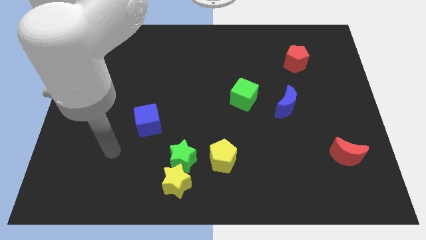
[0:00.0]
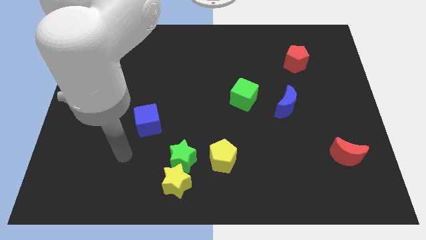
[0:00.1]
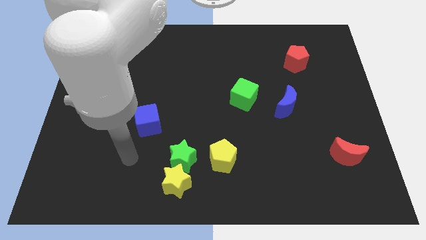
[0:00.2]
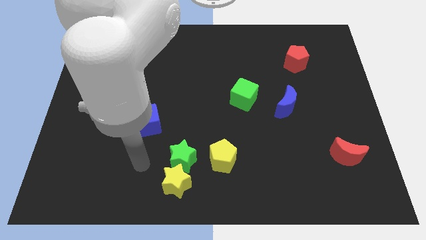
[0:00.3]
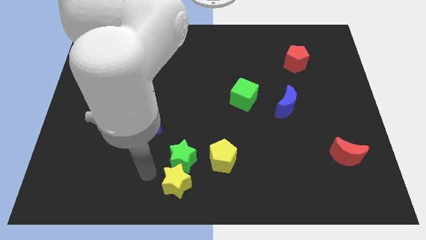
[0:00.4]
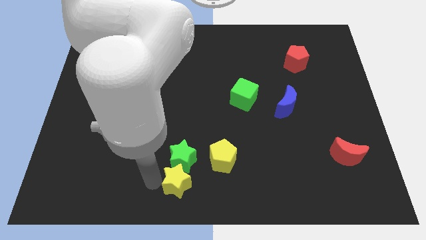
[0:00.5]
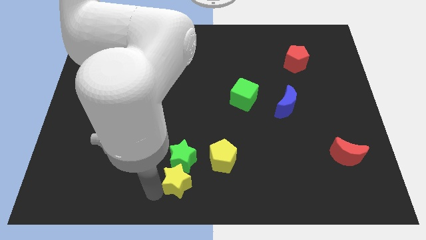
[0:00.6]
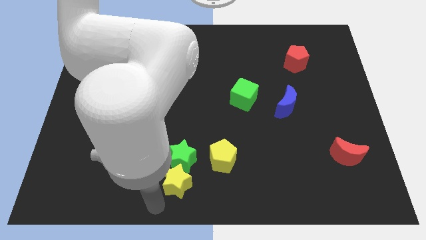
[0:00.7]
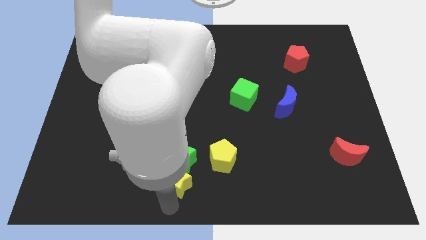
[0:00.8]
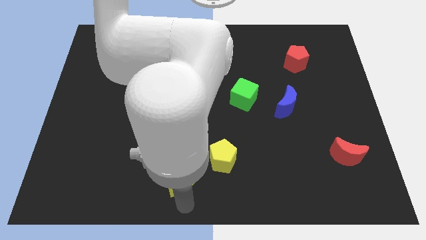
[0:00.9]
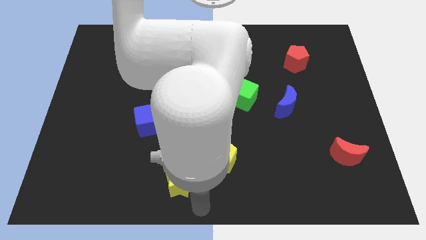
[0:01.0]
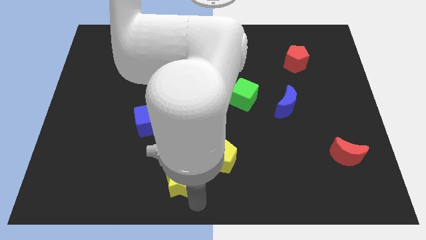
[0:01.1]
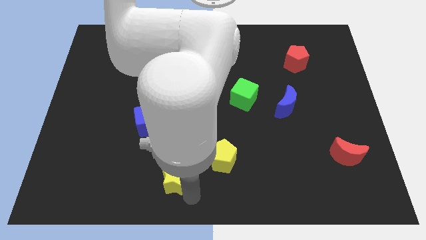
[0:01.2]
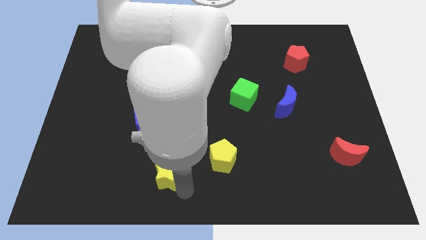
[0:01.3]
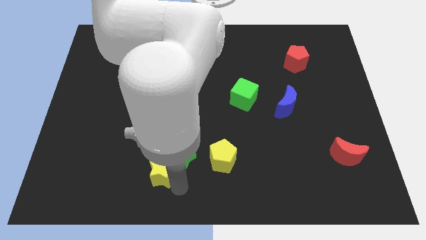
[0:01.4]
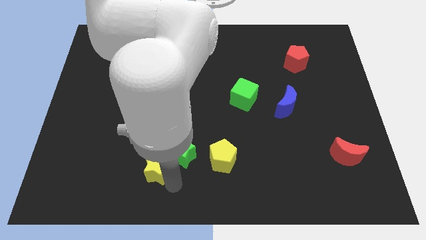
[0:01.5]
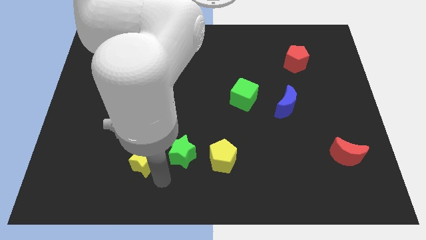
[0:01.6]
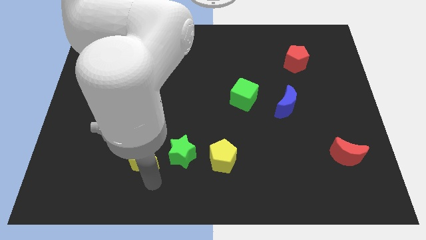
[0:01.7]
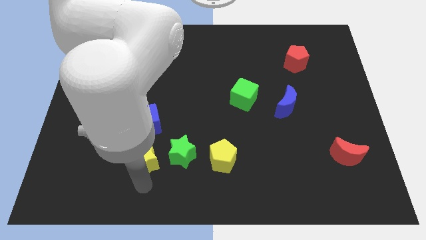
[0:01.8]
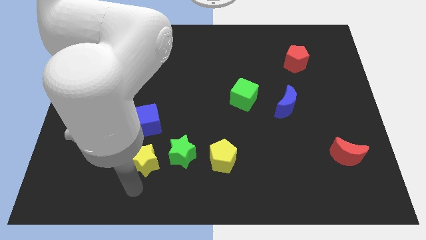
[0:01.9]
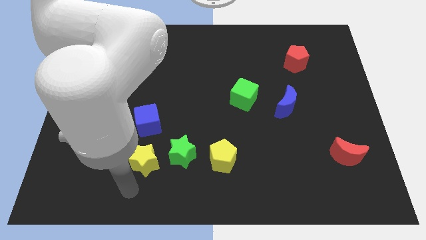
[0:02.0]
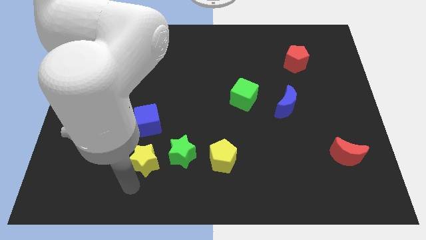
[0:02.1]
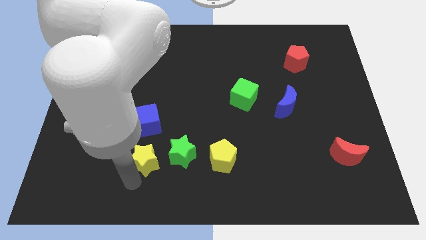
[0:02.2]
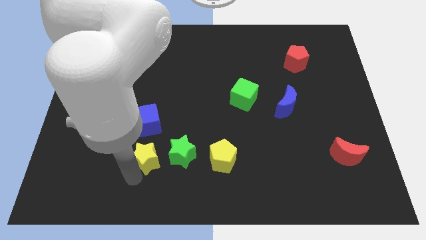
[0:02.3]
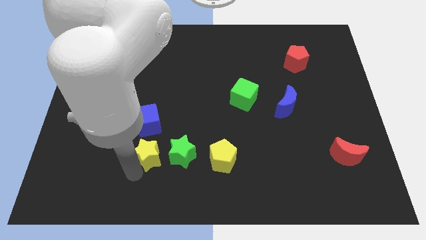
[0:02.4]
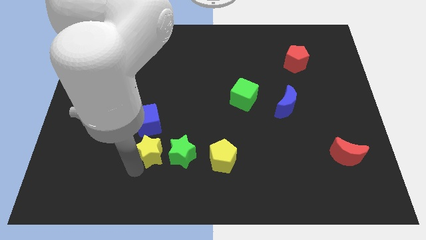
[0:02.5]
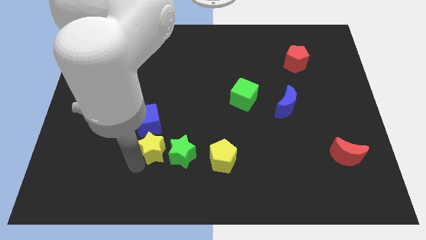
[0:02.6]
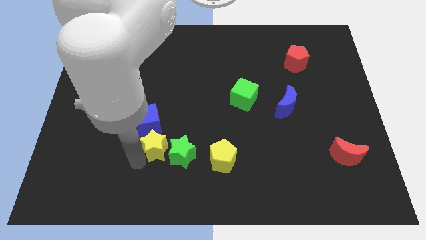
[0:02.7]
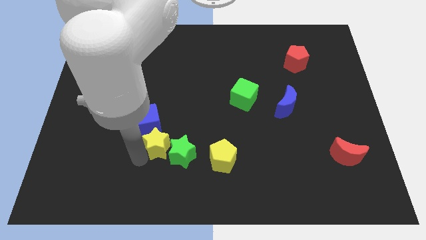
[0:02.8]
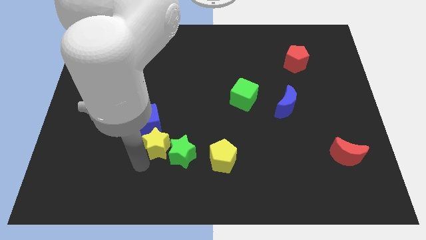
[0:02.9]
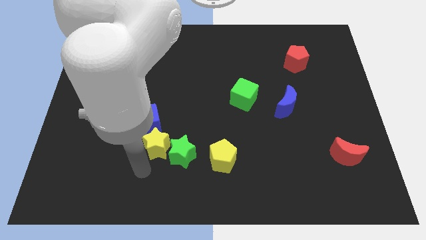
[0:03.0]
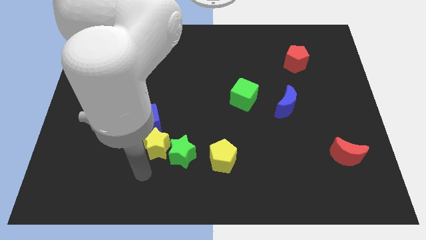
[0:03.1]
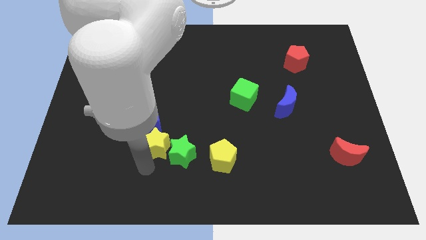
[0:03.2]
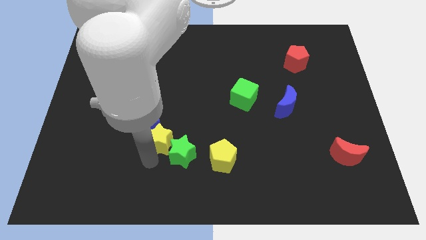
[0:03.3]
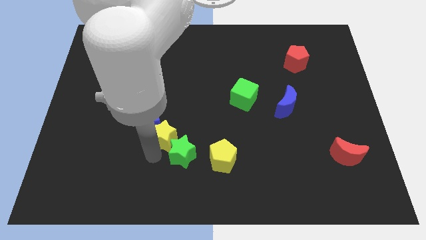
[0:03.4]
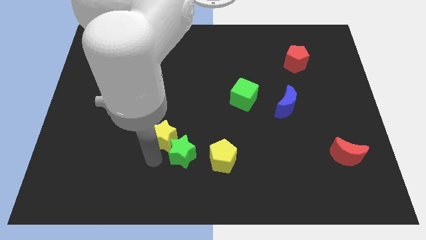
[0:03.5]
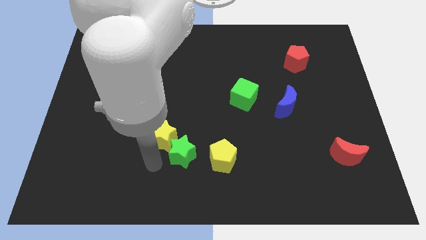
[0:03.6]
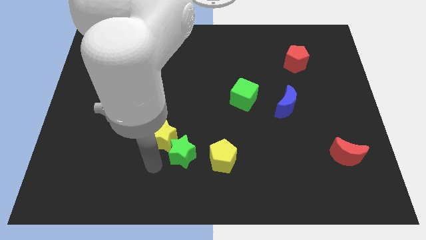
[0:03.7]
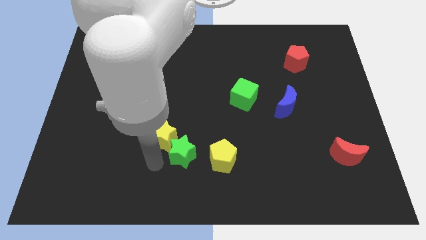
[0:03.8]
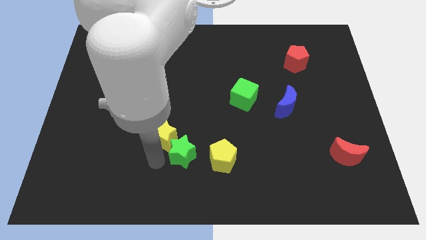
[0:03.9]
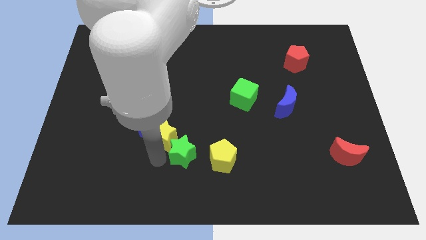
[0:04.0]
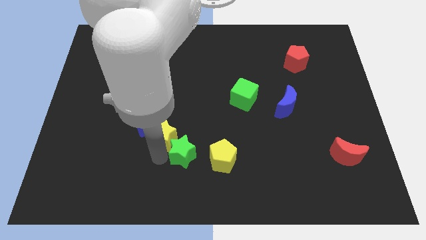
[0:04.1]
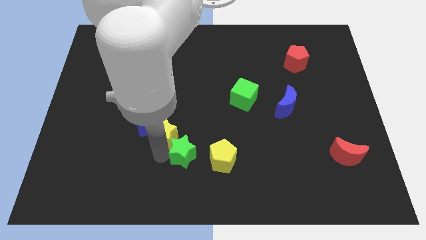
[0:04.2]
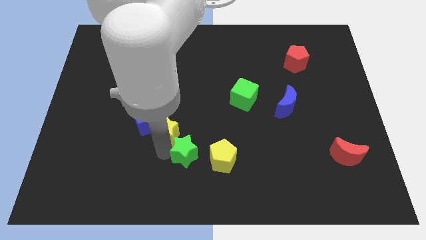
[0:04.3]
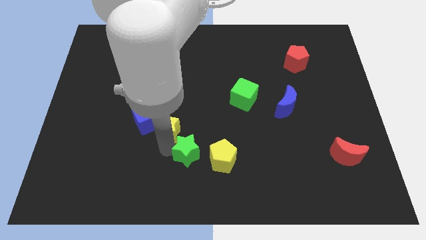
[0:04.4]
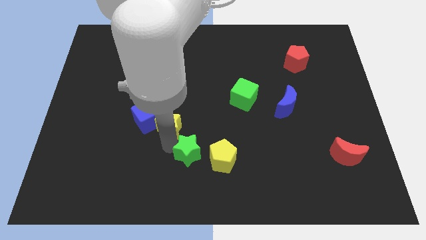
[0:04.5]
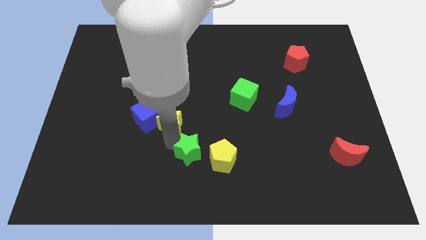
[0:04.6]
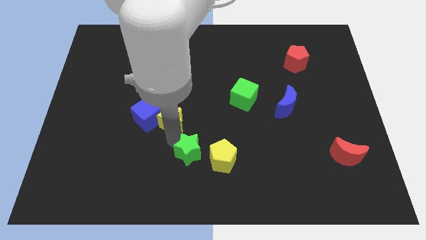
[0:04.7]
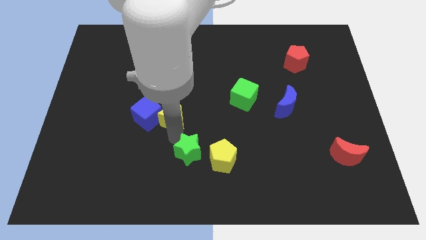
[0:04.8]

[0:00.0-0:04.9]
put the yellow star to the top right side of the blue cube

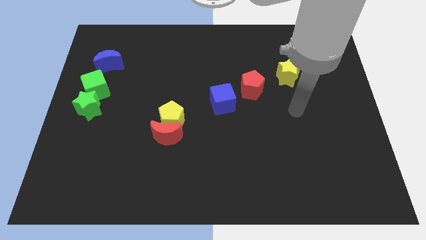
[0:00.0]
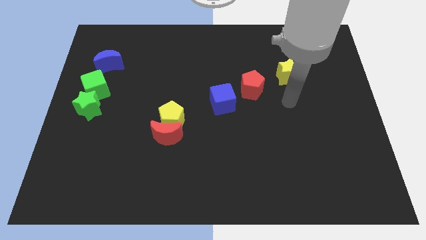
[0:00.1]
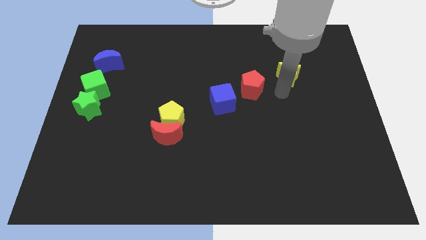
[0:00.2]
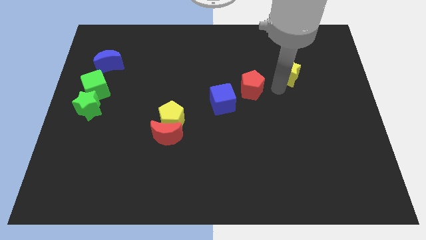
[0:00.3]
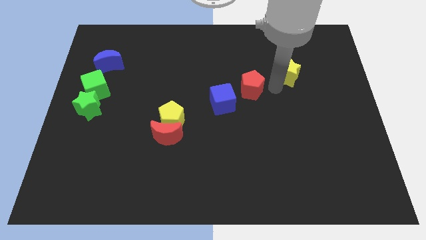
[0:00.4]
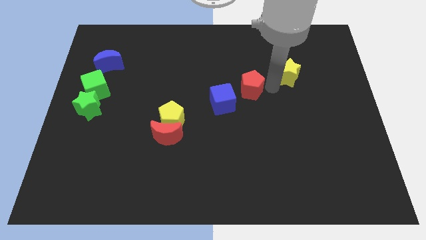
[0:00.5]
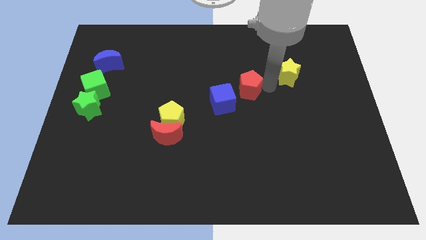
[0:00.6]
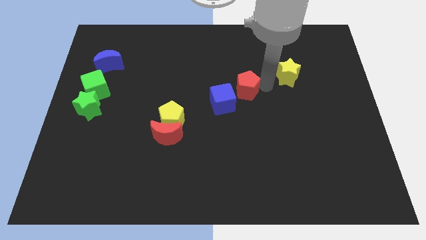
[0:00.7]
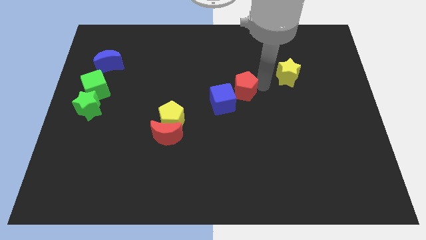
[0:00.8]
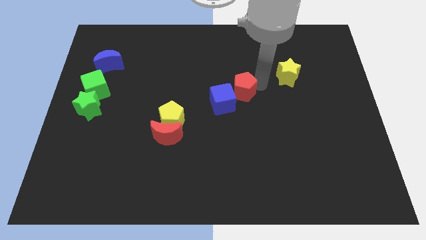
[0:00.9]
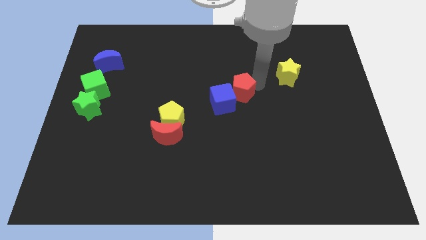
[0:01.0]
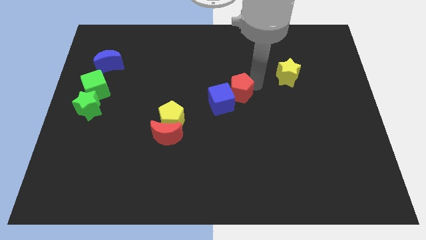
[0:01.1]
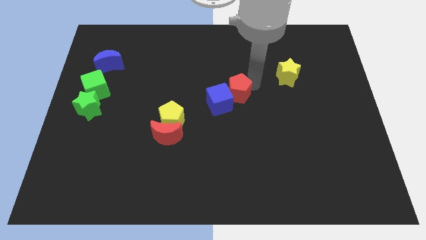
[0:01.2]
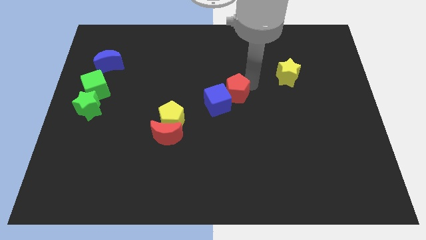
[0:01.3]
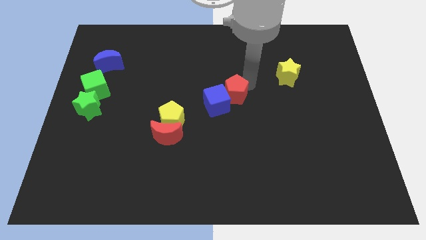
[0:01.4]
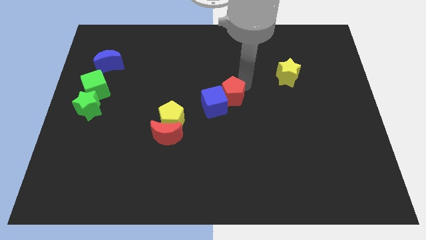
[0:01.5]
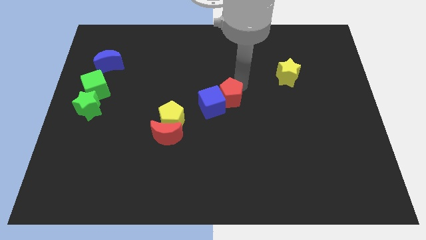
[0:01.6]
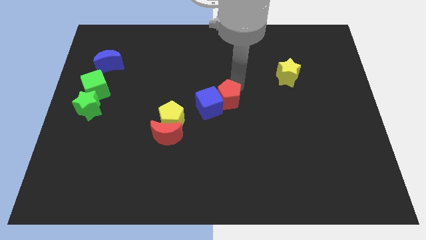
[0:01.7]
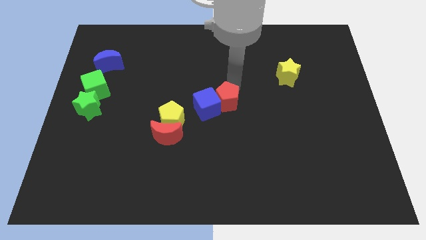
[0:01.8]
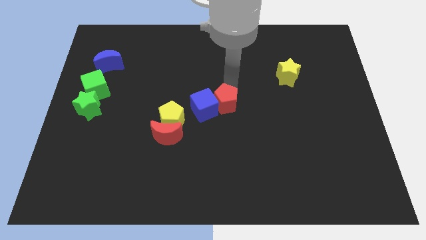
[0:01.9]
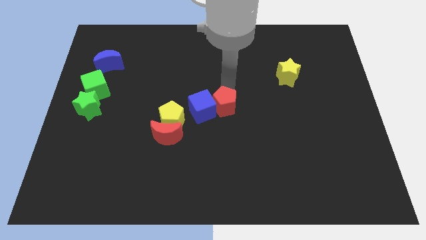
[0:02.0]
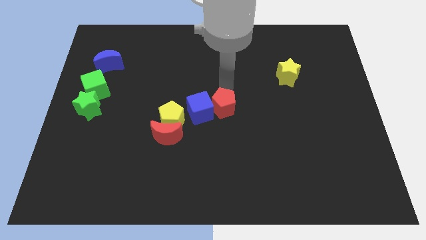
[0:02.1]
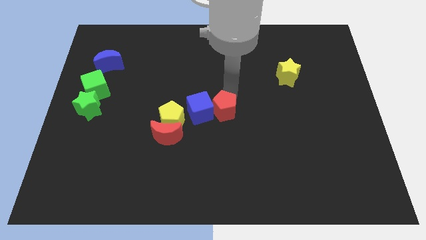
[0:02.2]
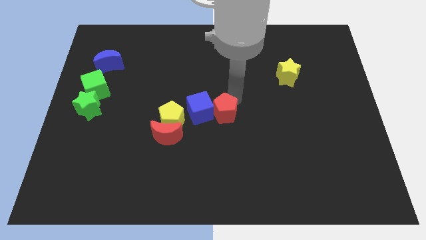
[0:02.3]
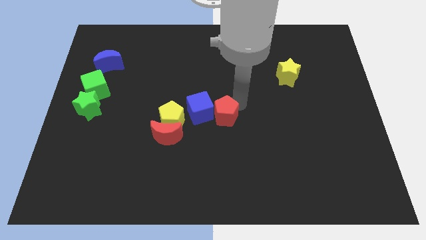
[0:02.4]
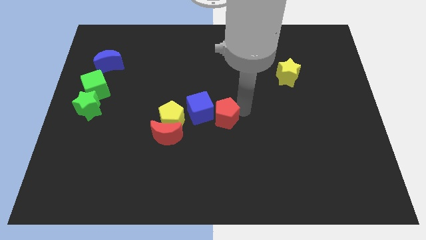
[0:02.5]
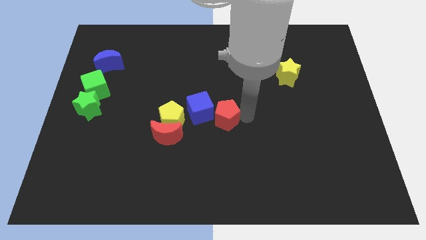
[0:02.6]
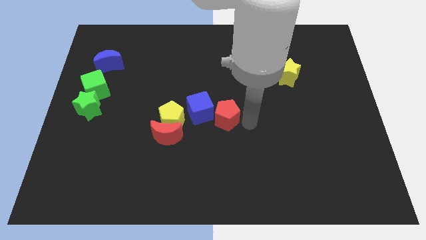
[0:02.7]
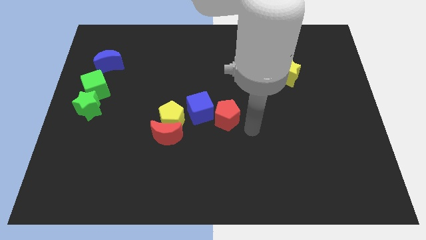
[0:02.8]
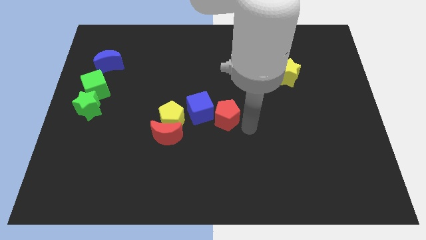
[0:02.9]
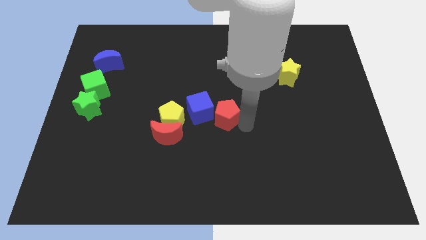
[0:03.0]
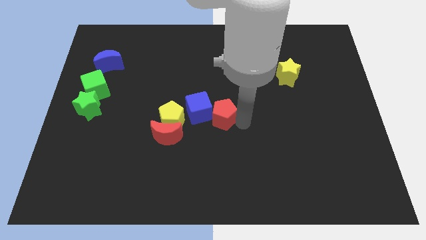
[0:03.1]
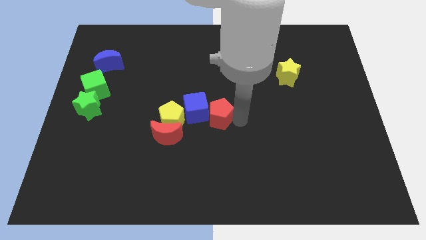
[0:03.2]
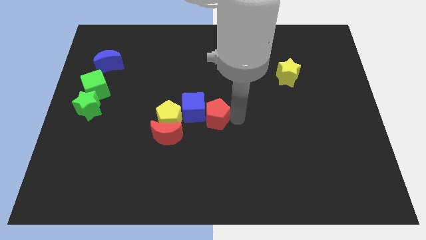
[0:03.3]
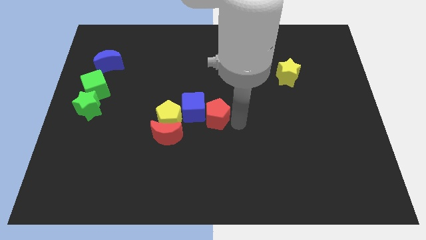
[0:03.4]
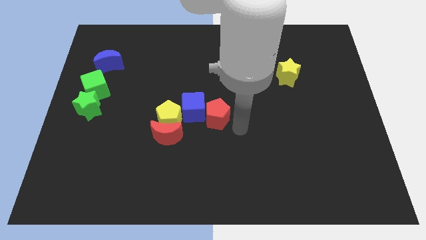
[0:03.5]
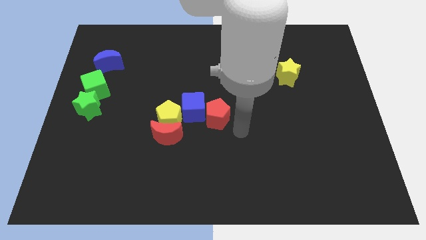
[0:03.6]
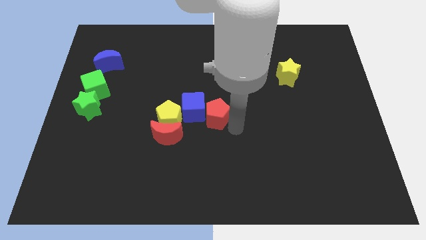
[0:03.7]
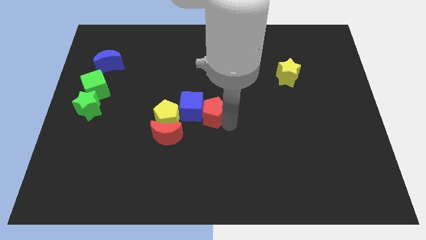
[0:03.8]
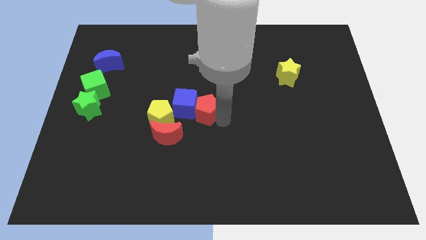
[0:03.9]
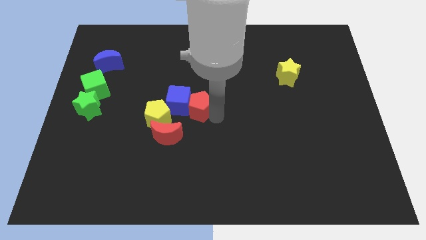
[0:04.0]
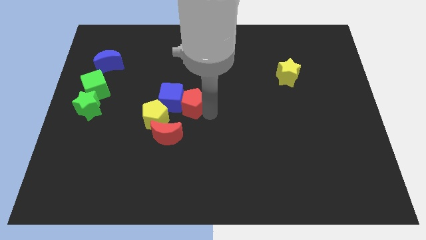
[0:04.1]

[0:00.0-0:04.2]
push the red pentagon diagonally up and to the right of the yellow pentagon
